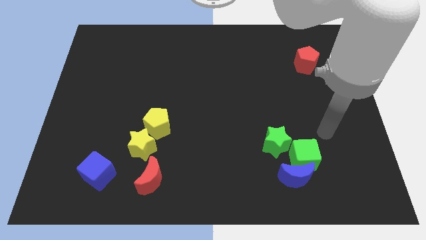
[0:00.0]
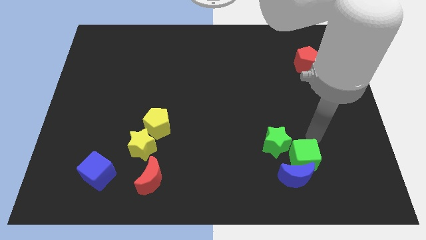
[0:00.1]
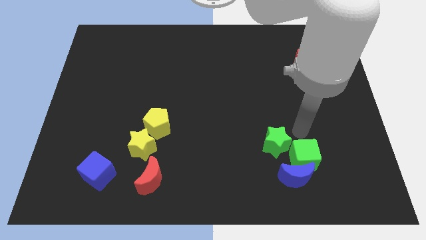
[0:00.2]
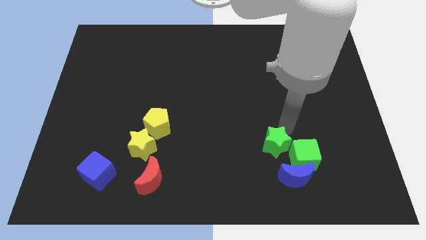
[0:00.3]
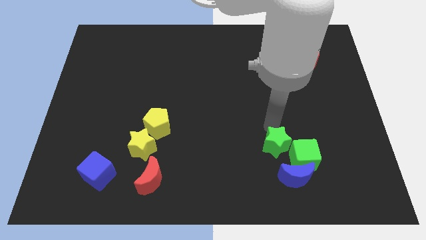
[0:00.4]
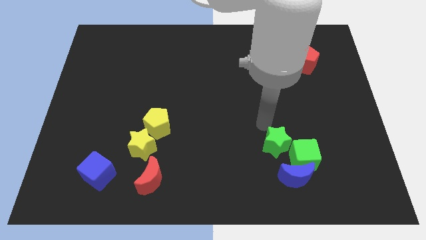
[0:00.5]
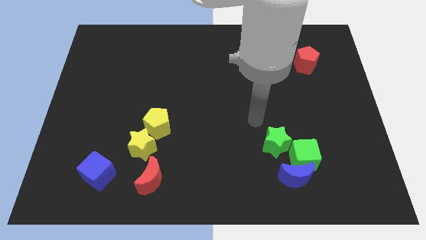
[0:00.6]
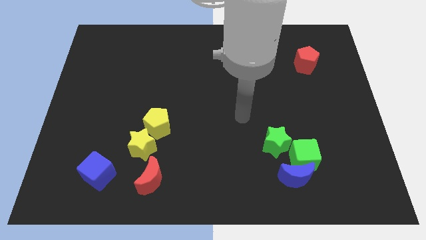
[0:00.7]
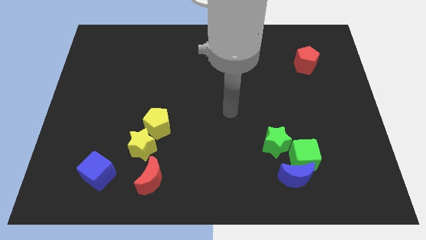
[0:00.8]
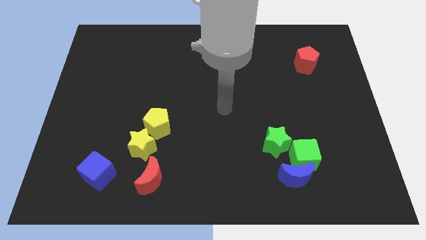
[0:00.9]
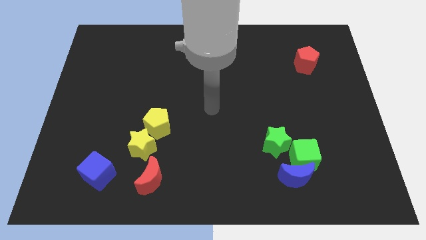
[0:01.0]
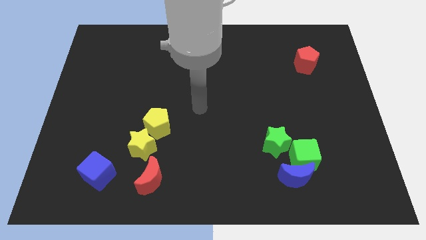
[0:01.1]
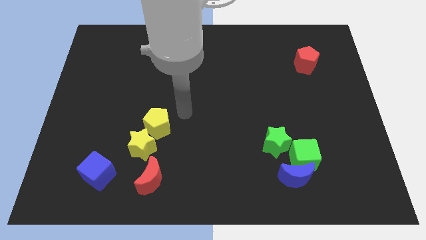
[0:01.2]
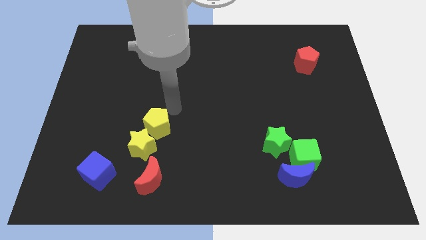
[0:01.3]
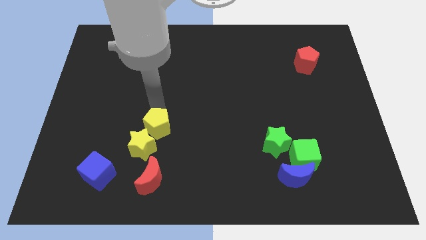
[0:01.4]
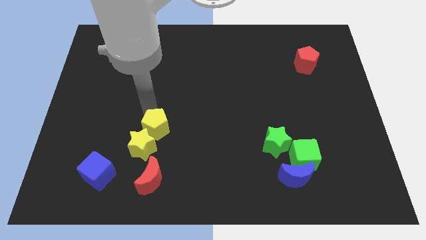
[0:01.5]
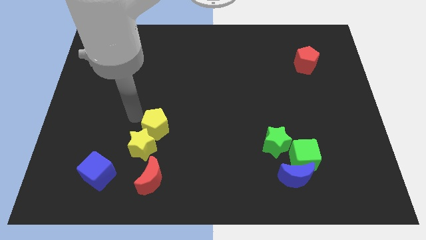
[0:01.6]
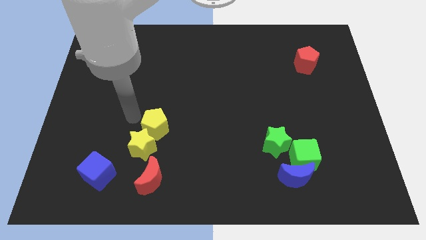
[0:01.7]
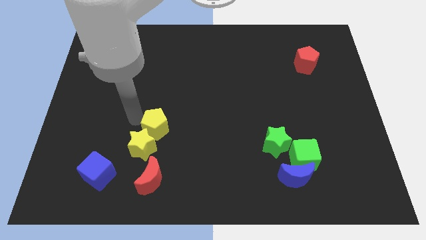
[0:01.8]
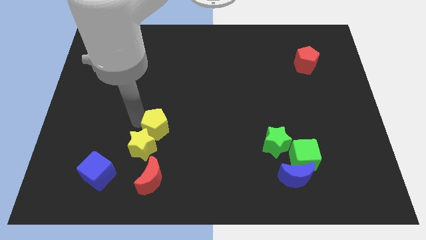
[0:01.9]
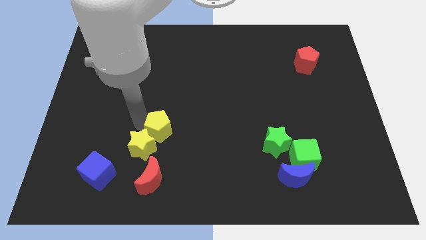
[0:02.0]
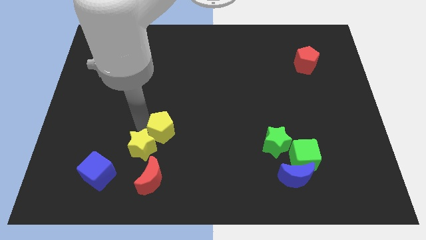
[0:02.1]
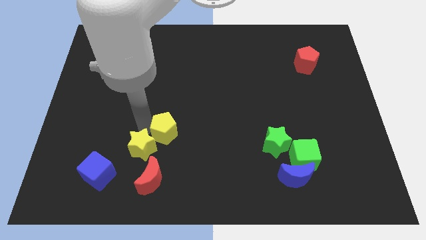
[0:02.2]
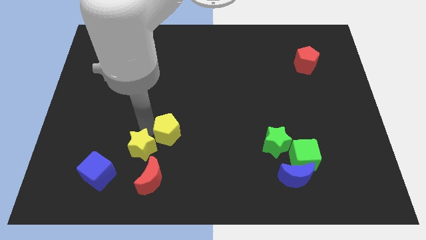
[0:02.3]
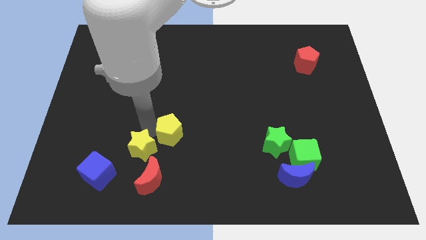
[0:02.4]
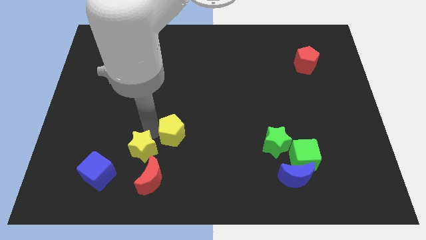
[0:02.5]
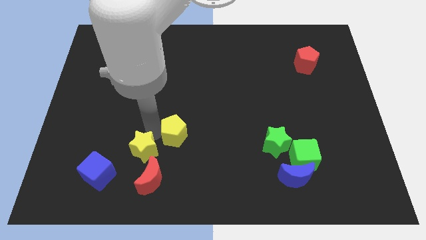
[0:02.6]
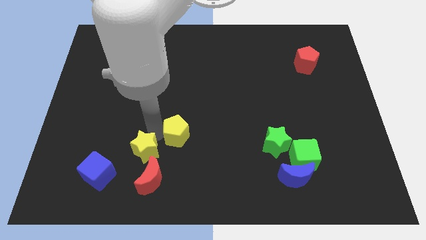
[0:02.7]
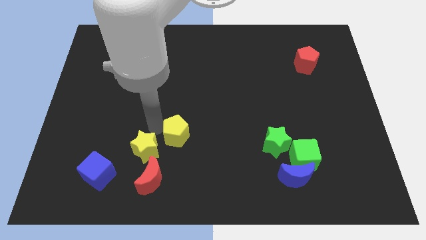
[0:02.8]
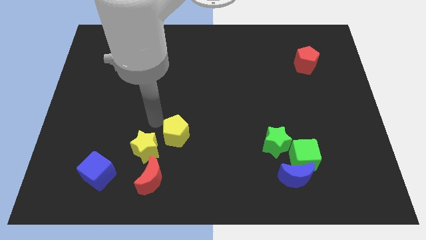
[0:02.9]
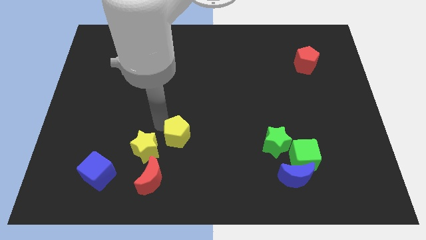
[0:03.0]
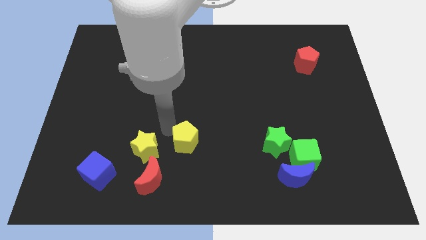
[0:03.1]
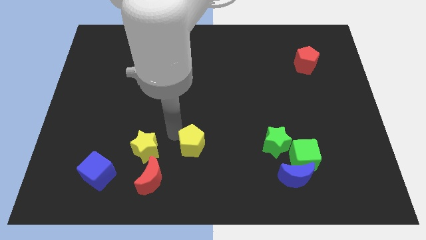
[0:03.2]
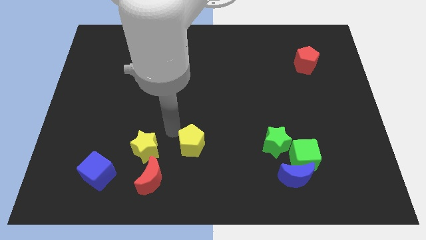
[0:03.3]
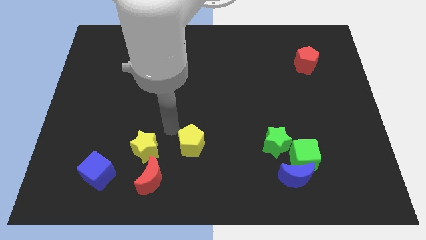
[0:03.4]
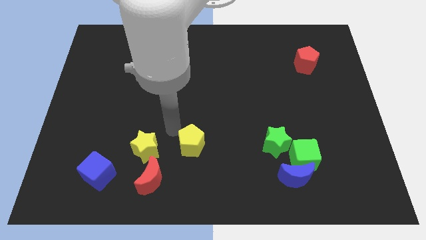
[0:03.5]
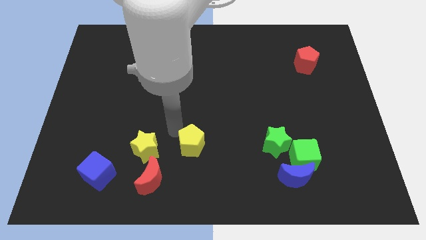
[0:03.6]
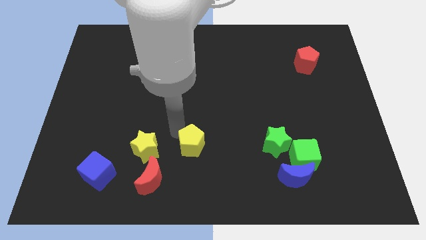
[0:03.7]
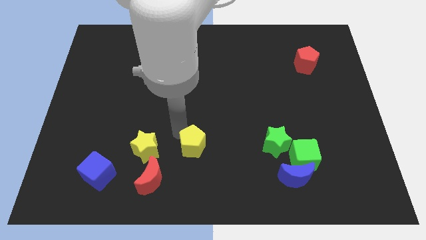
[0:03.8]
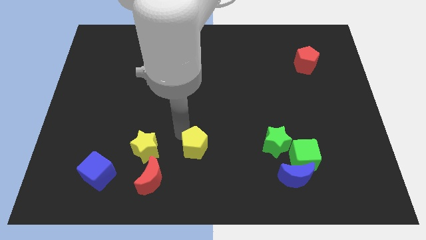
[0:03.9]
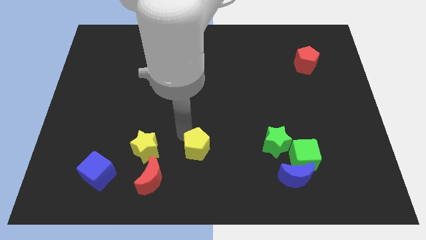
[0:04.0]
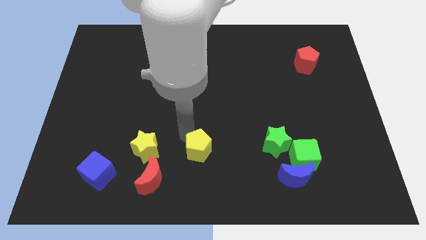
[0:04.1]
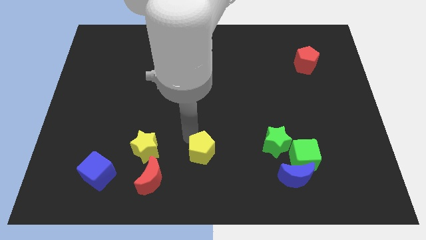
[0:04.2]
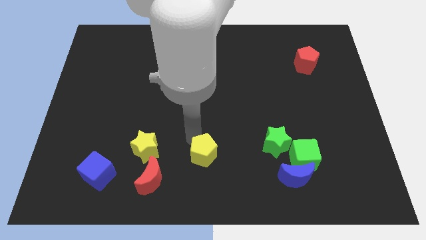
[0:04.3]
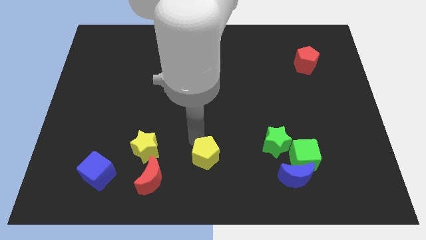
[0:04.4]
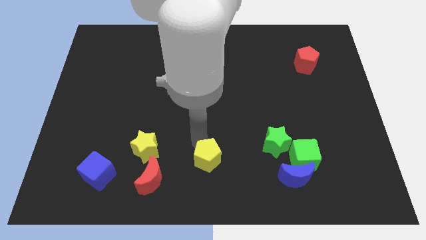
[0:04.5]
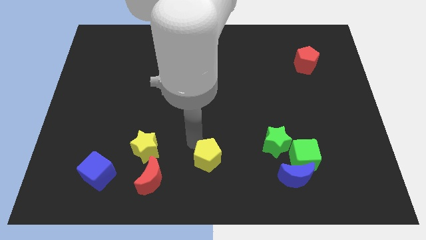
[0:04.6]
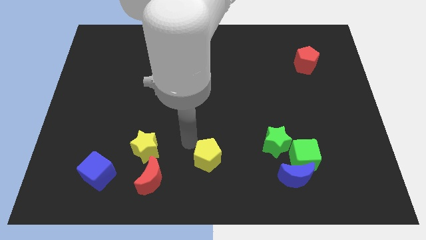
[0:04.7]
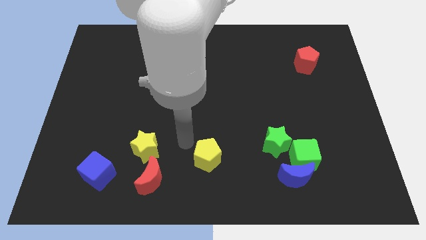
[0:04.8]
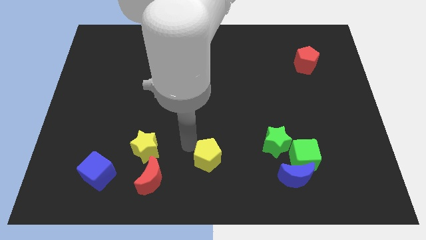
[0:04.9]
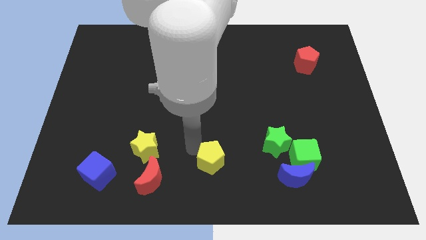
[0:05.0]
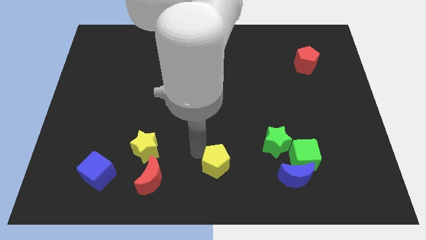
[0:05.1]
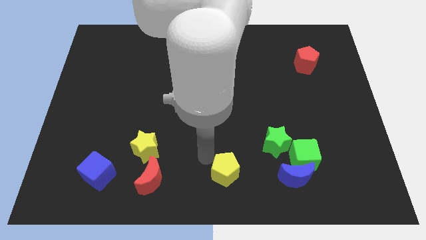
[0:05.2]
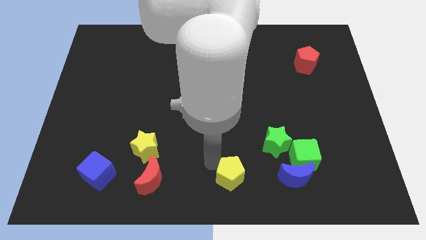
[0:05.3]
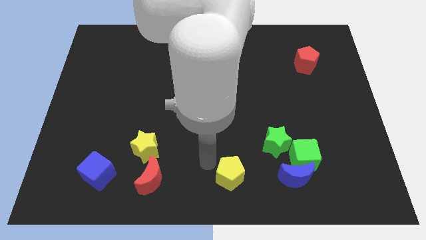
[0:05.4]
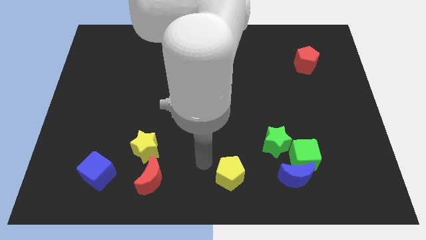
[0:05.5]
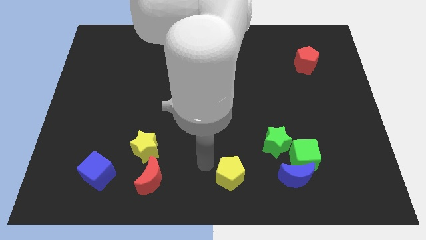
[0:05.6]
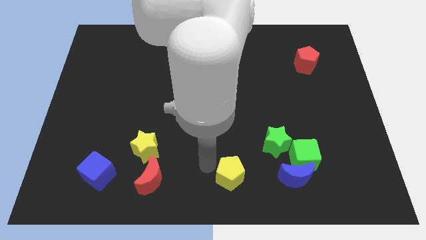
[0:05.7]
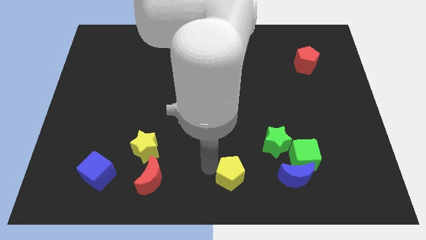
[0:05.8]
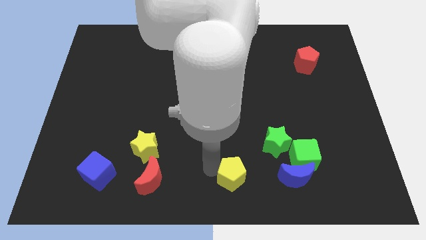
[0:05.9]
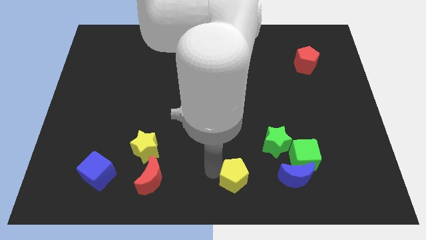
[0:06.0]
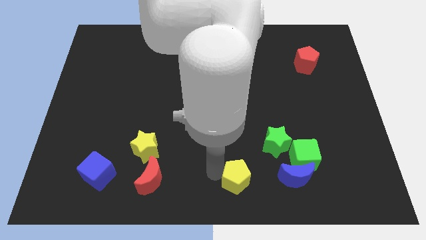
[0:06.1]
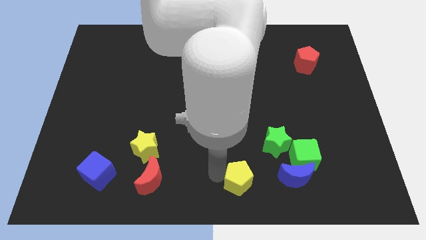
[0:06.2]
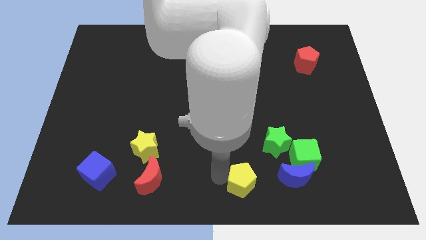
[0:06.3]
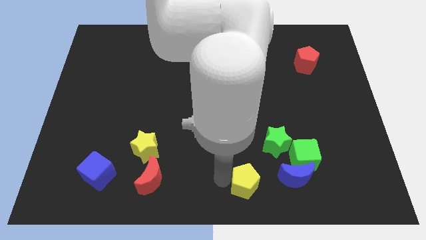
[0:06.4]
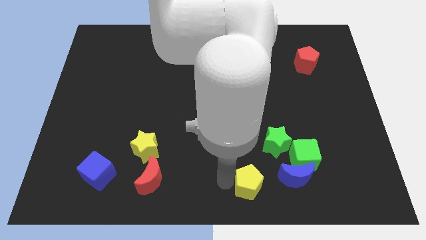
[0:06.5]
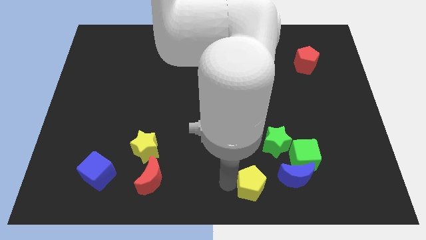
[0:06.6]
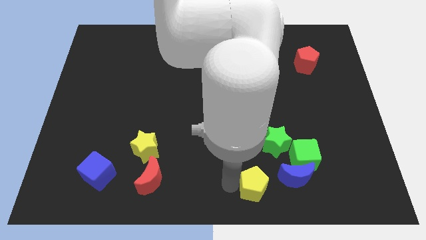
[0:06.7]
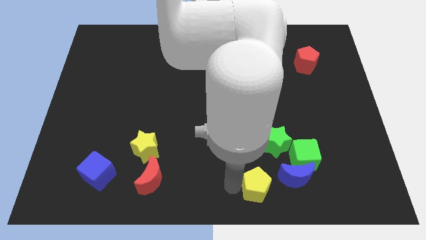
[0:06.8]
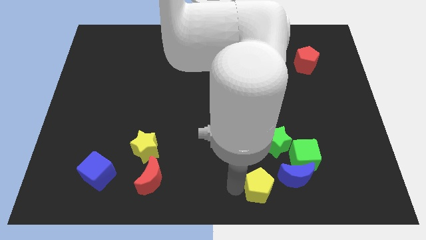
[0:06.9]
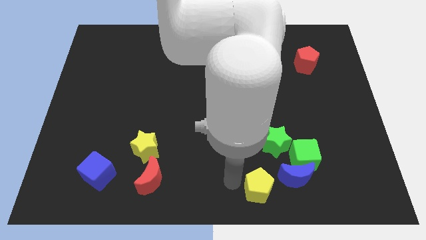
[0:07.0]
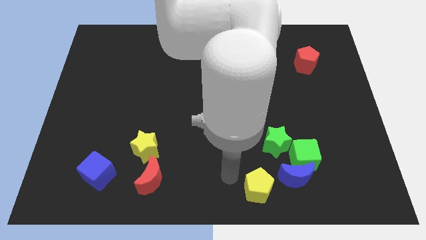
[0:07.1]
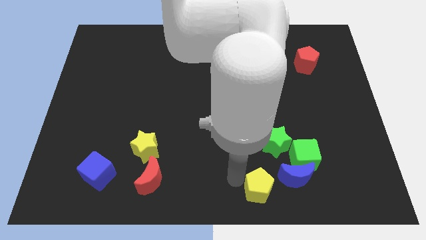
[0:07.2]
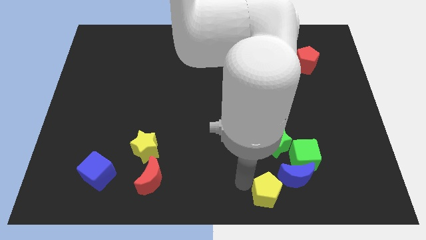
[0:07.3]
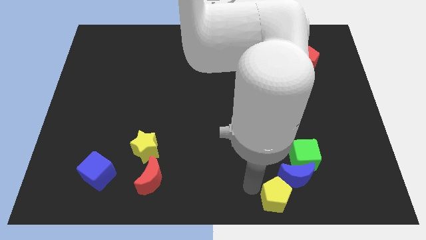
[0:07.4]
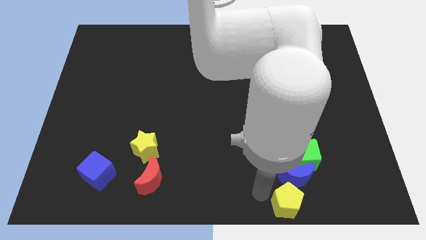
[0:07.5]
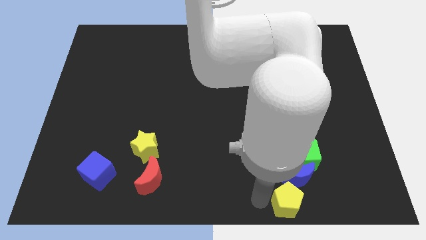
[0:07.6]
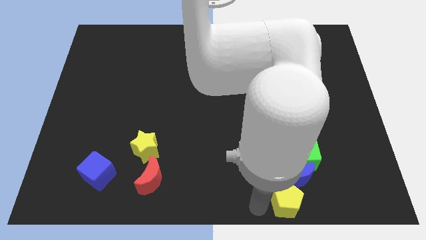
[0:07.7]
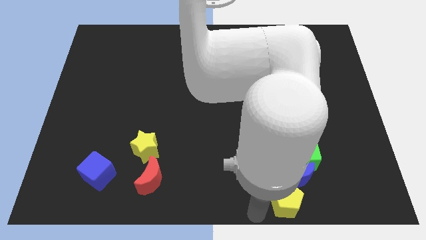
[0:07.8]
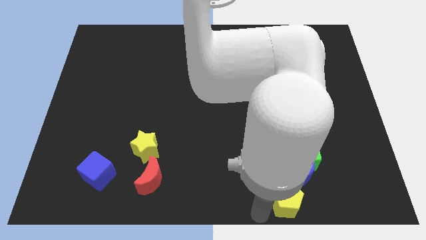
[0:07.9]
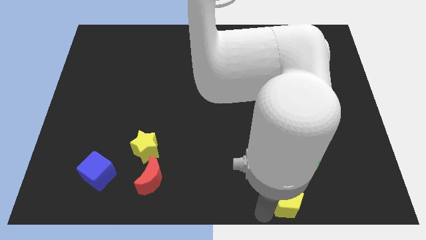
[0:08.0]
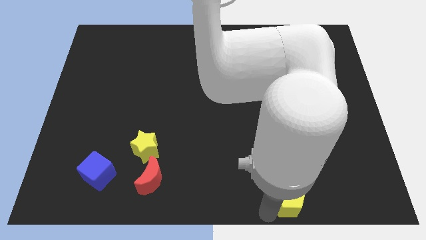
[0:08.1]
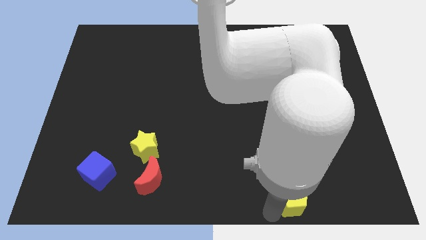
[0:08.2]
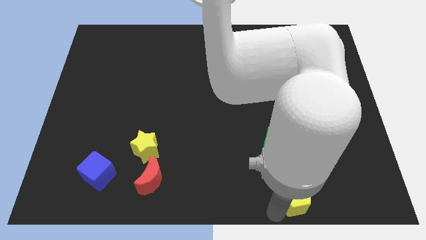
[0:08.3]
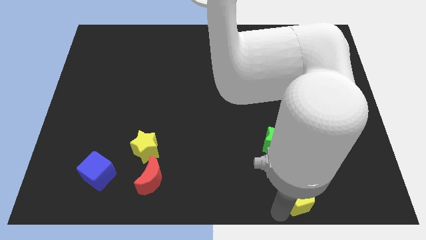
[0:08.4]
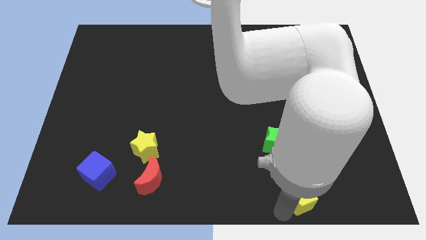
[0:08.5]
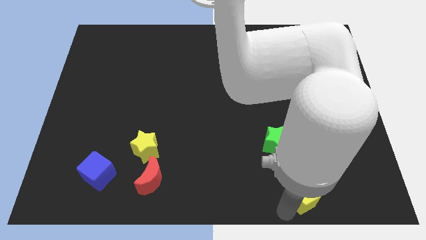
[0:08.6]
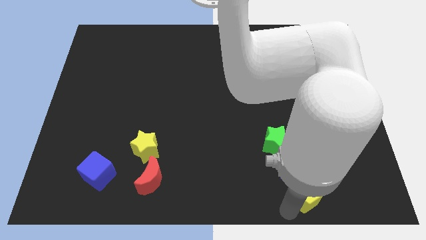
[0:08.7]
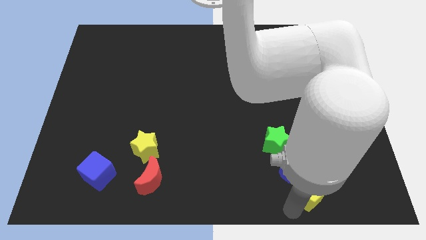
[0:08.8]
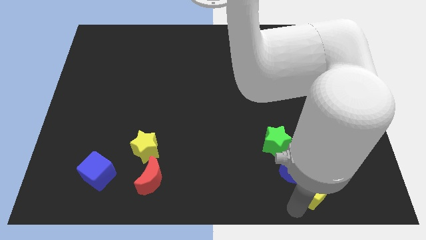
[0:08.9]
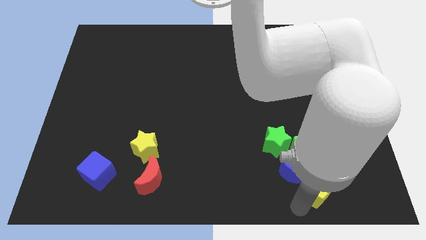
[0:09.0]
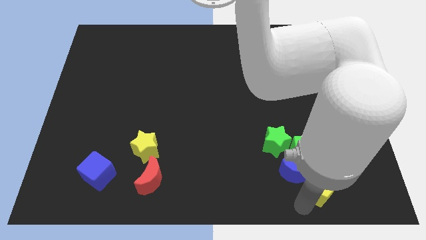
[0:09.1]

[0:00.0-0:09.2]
push the yellow pentagon diagonally down and to the right of the green cube
